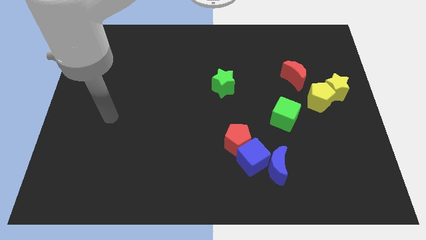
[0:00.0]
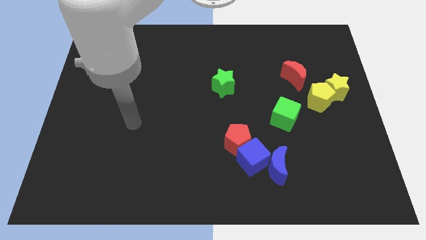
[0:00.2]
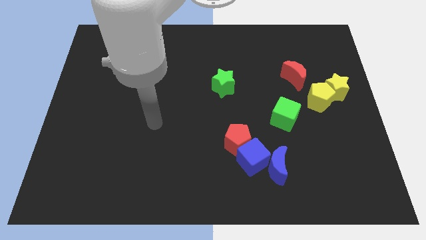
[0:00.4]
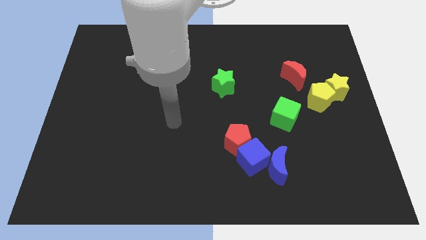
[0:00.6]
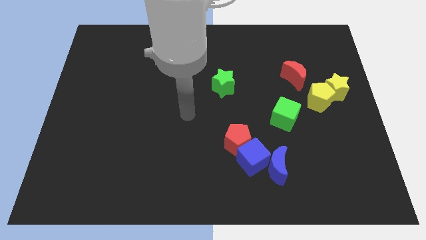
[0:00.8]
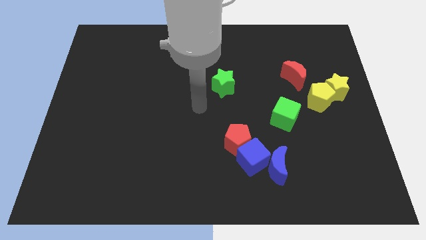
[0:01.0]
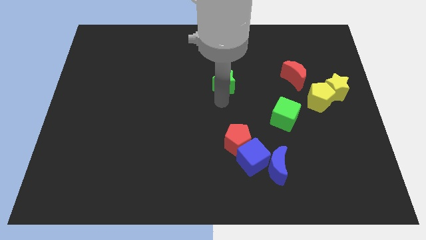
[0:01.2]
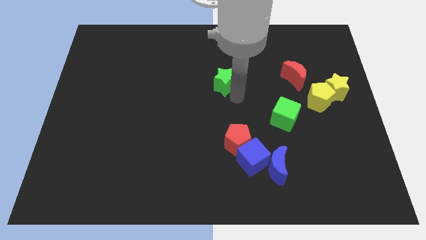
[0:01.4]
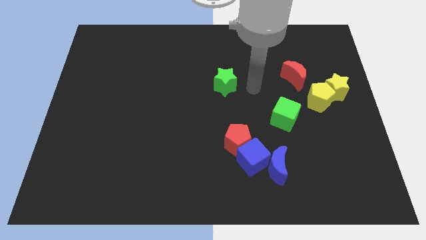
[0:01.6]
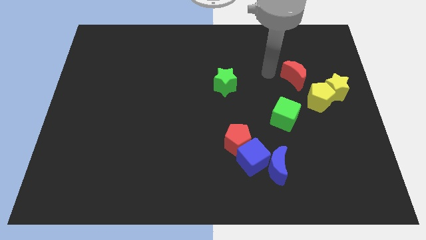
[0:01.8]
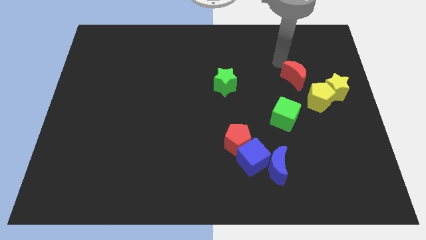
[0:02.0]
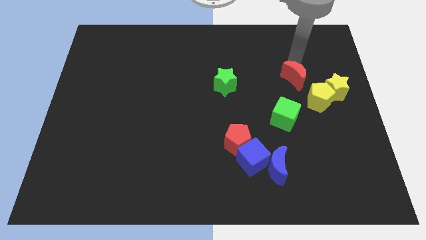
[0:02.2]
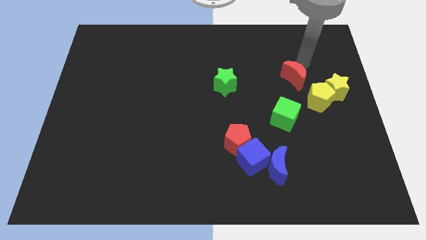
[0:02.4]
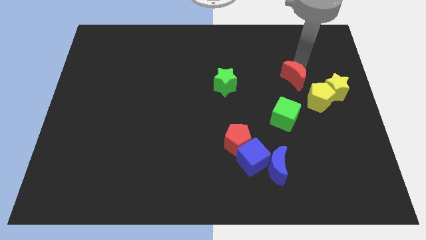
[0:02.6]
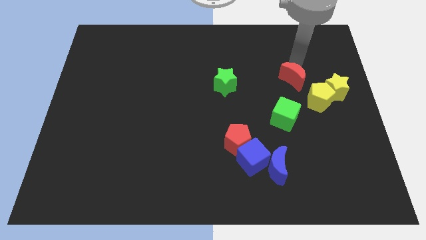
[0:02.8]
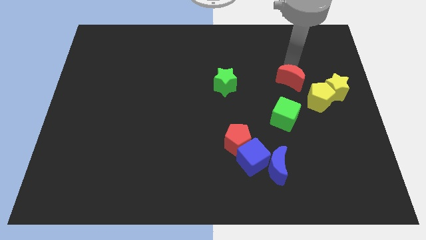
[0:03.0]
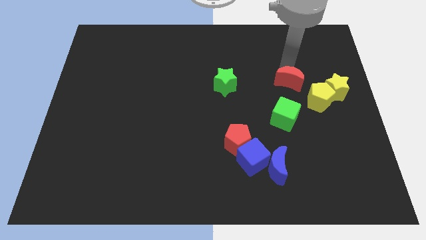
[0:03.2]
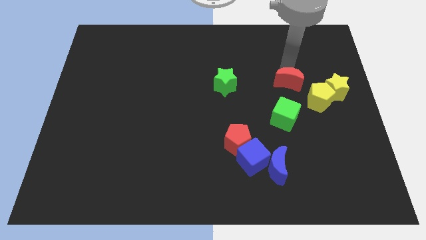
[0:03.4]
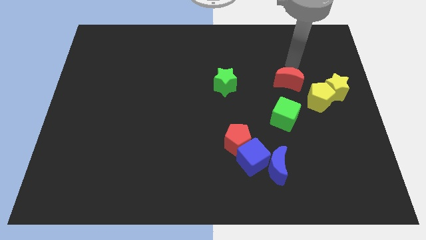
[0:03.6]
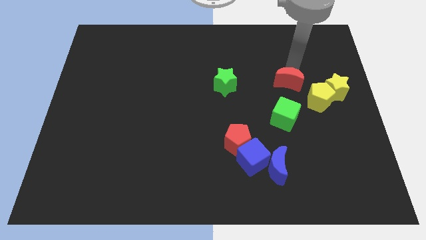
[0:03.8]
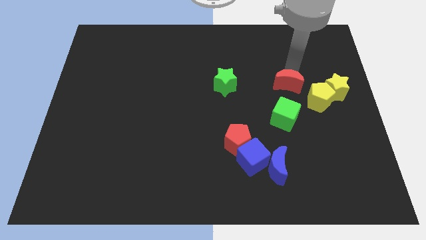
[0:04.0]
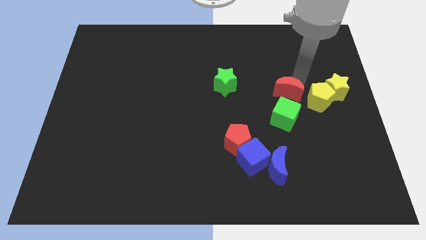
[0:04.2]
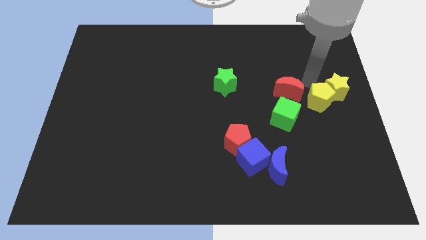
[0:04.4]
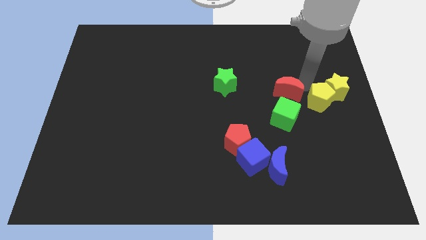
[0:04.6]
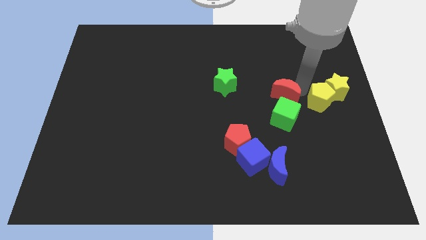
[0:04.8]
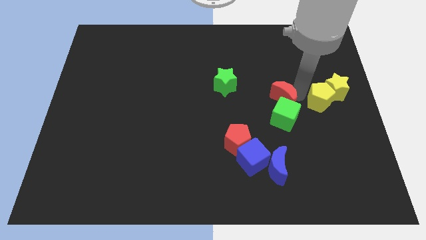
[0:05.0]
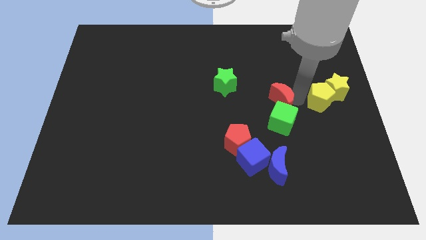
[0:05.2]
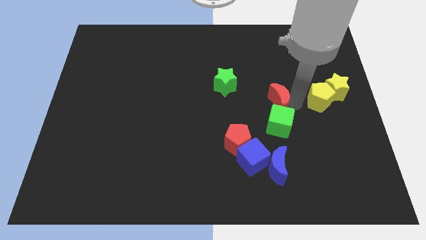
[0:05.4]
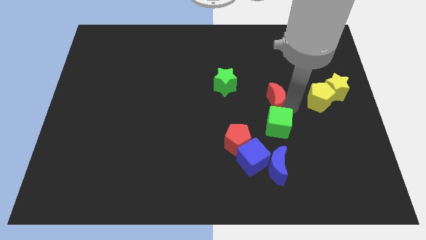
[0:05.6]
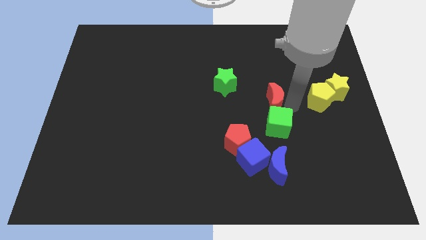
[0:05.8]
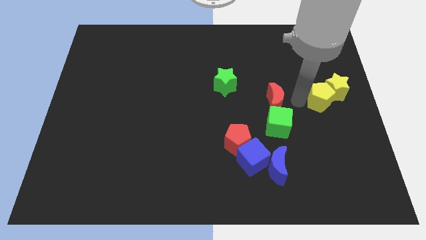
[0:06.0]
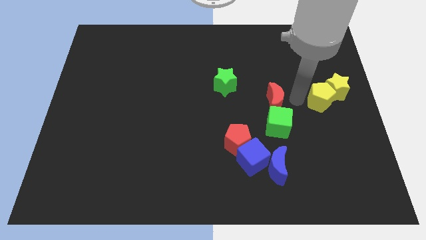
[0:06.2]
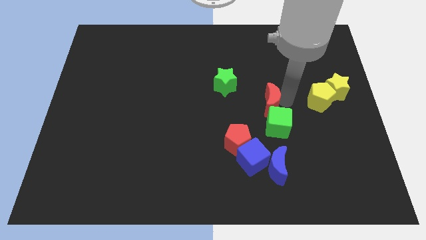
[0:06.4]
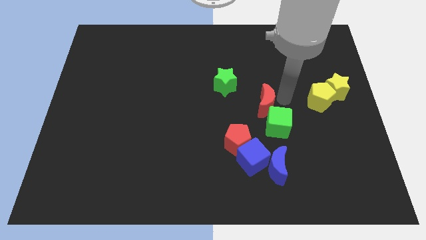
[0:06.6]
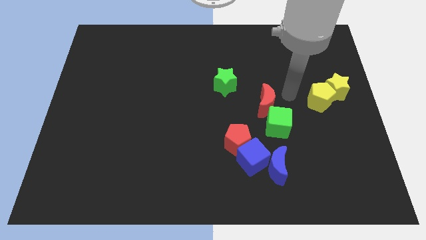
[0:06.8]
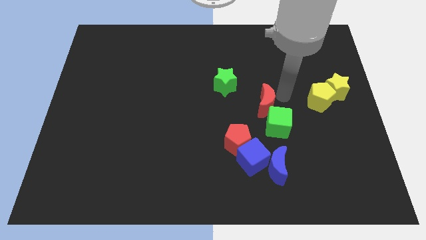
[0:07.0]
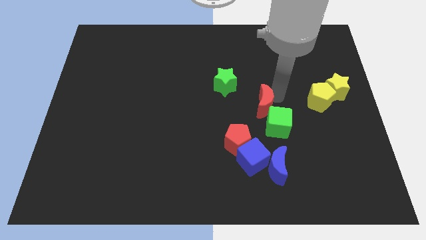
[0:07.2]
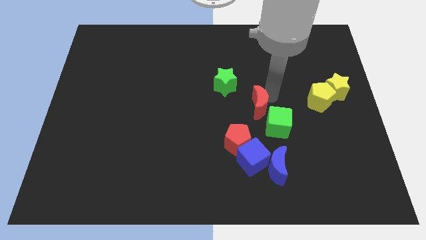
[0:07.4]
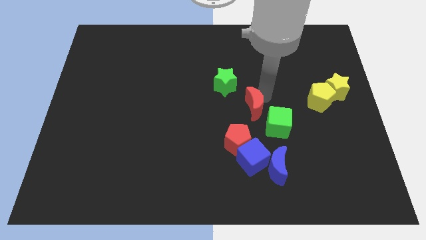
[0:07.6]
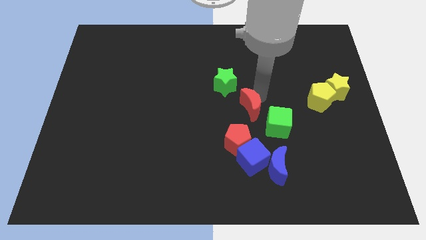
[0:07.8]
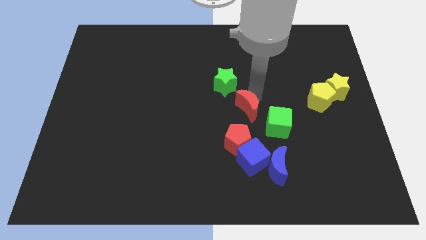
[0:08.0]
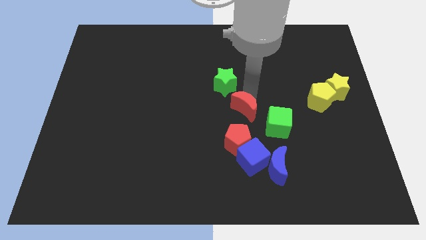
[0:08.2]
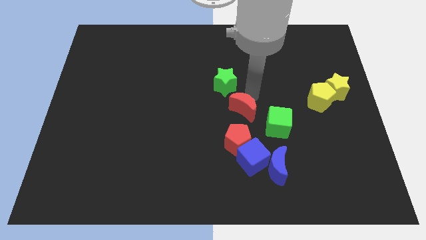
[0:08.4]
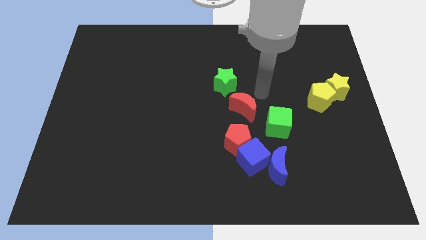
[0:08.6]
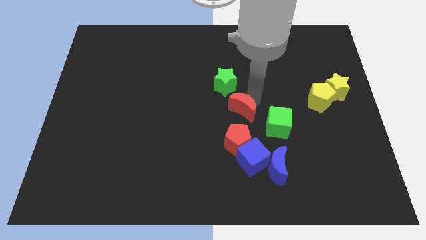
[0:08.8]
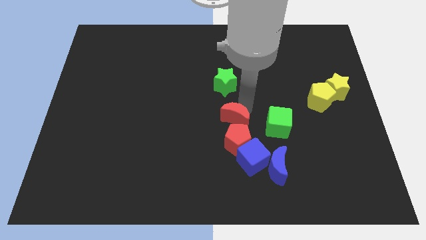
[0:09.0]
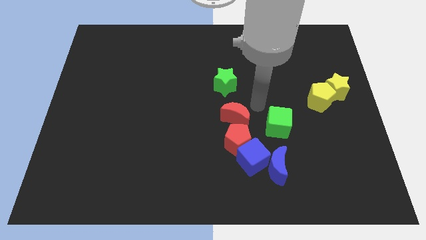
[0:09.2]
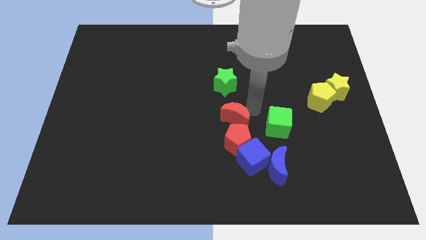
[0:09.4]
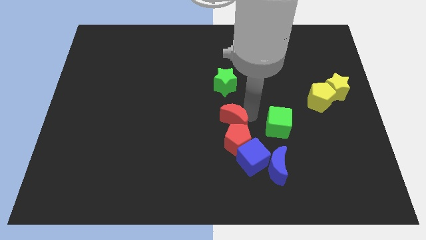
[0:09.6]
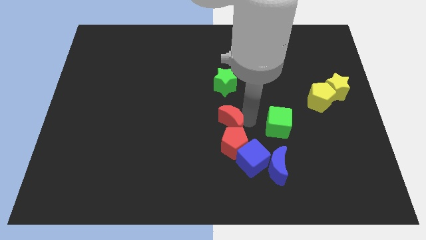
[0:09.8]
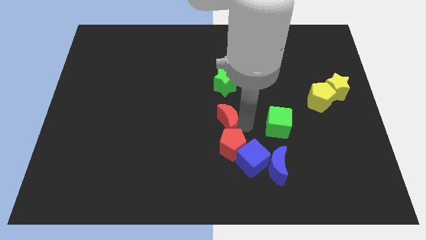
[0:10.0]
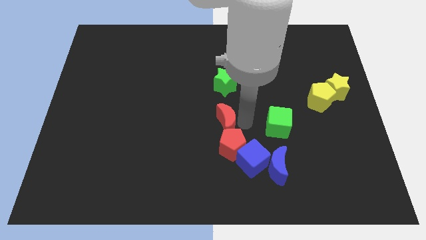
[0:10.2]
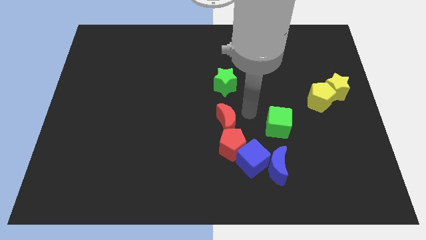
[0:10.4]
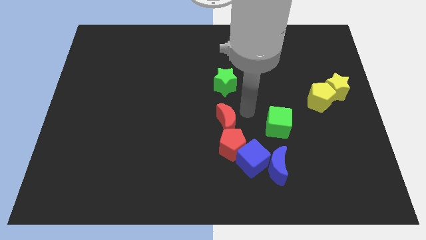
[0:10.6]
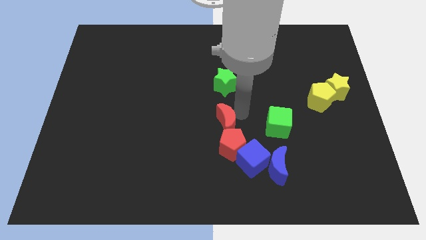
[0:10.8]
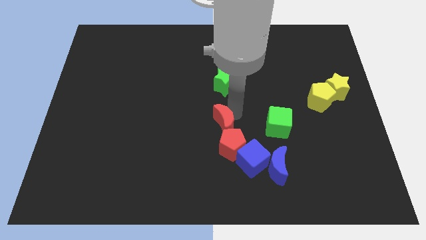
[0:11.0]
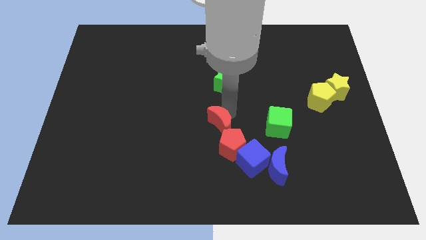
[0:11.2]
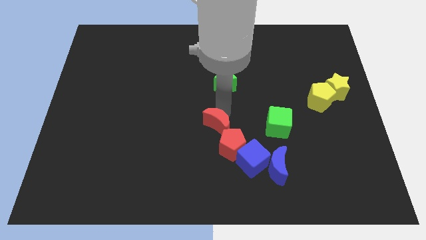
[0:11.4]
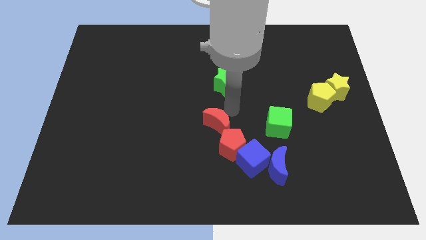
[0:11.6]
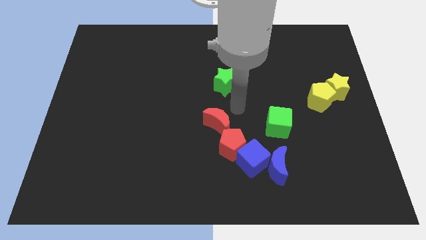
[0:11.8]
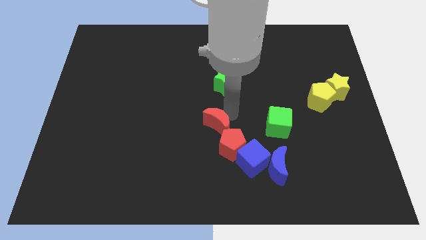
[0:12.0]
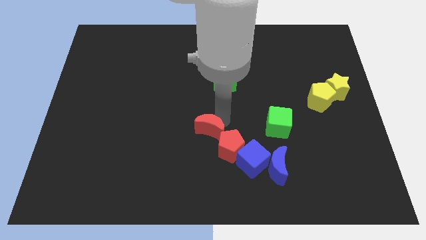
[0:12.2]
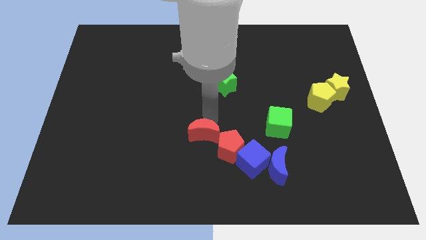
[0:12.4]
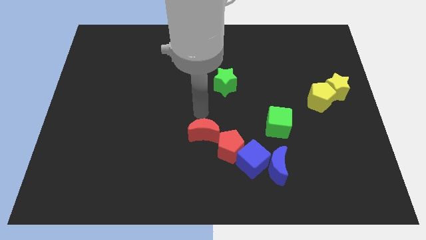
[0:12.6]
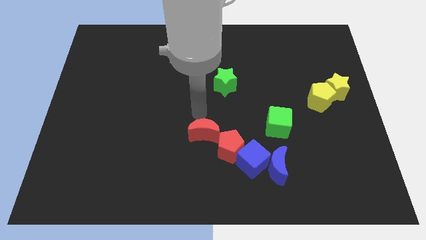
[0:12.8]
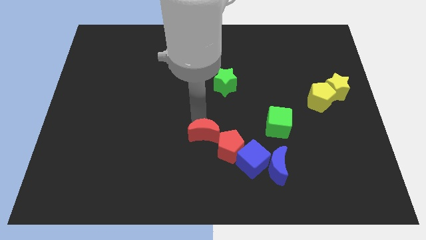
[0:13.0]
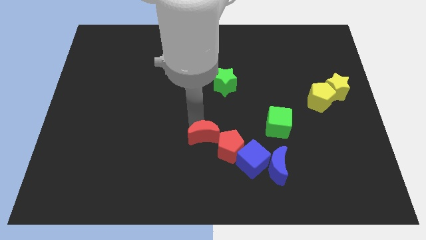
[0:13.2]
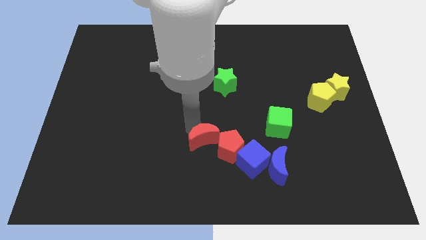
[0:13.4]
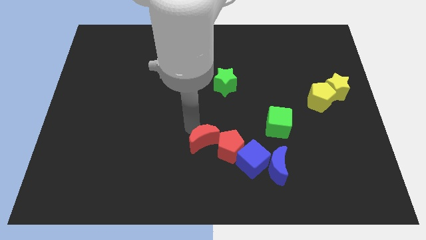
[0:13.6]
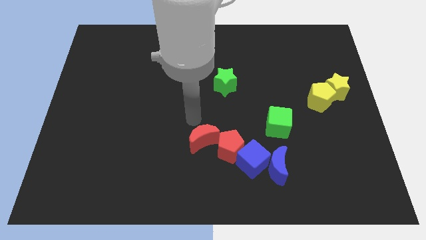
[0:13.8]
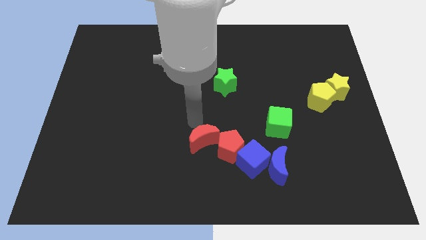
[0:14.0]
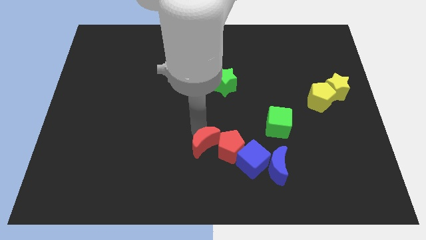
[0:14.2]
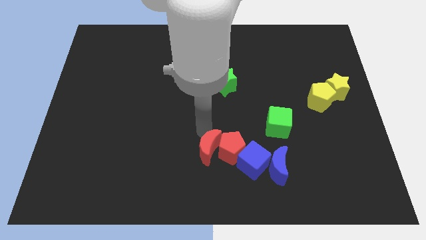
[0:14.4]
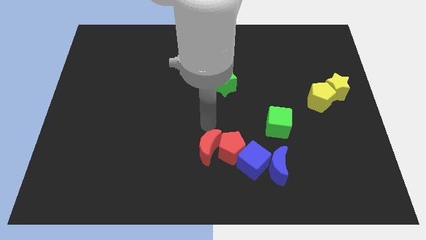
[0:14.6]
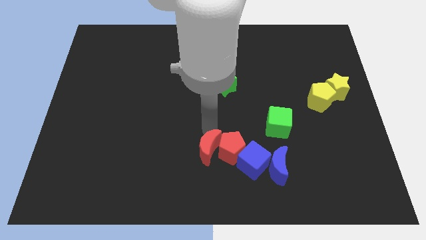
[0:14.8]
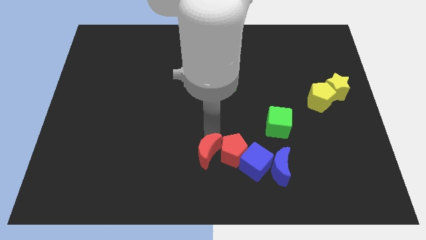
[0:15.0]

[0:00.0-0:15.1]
move the red moon to the bottom
